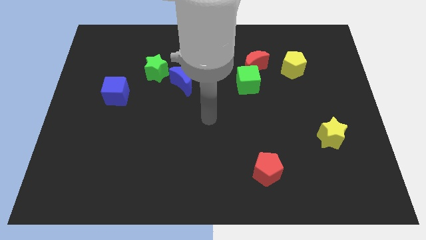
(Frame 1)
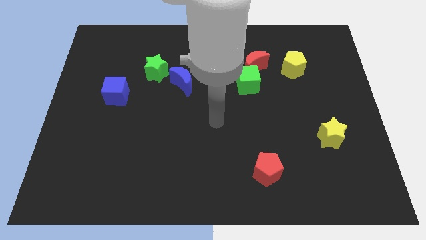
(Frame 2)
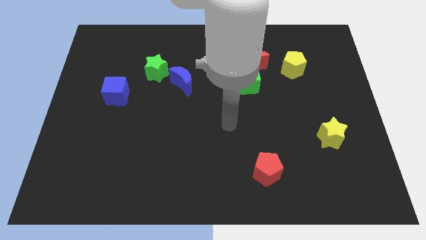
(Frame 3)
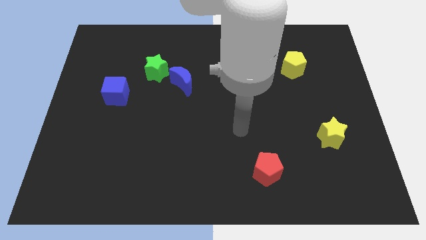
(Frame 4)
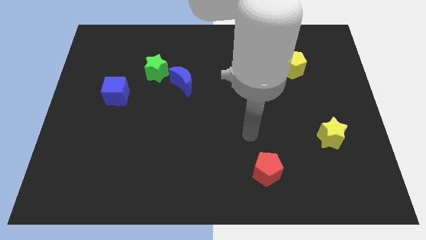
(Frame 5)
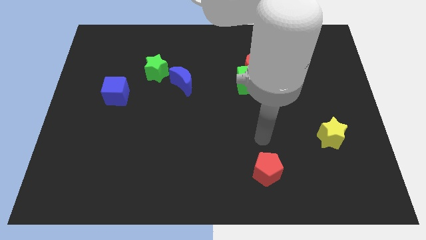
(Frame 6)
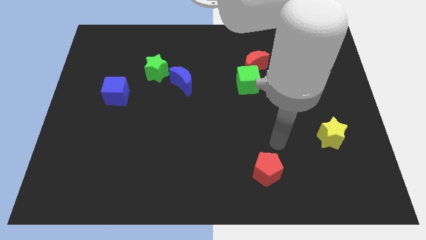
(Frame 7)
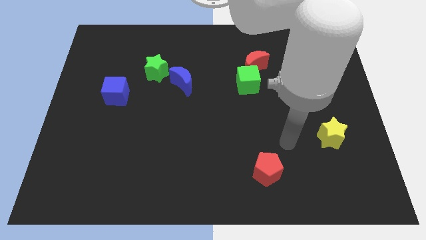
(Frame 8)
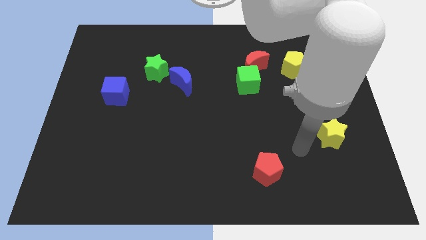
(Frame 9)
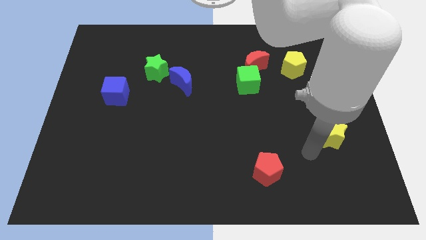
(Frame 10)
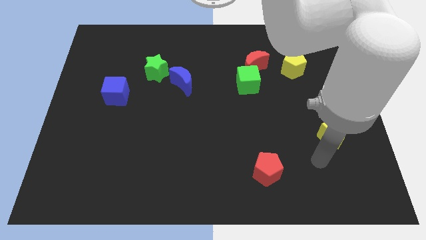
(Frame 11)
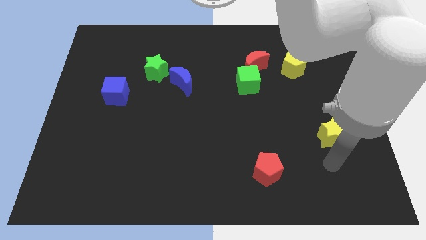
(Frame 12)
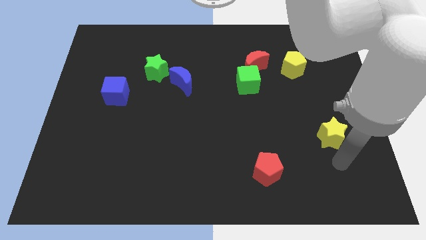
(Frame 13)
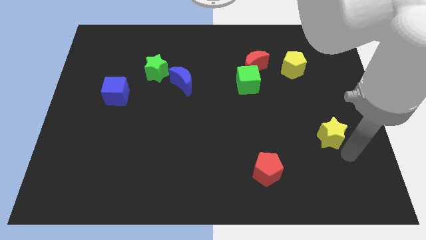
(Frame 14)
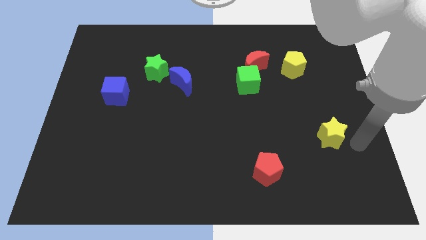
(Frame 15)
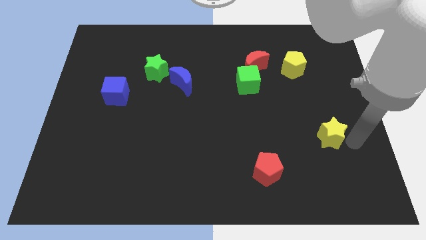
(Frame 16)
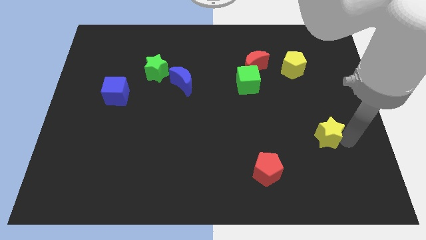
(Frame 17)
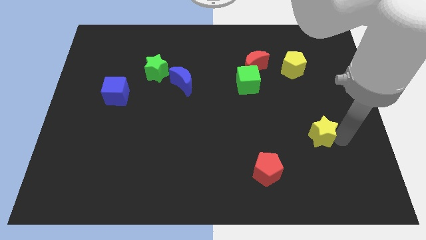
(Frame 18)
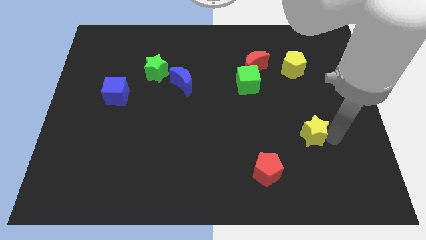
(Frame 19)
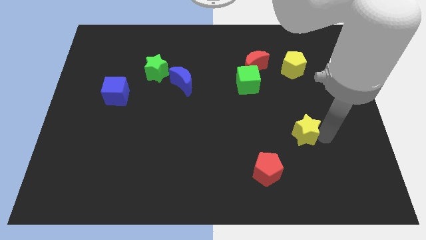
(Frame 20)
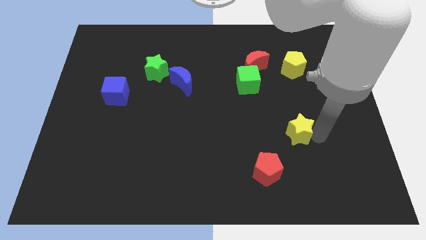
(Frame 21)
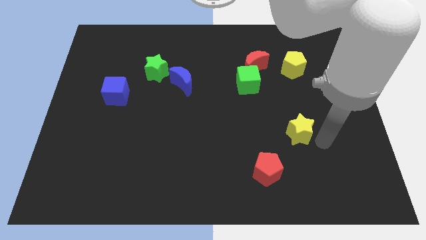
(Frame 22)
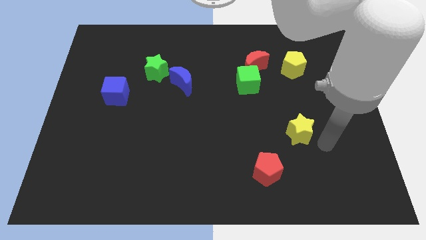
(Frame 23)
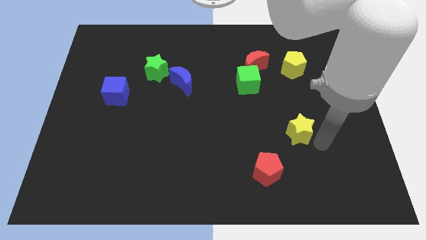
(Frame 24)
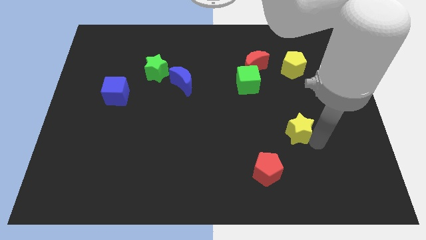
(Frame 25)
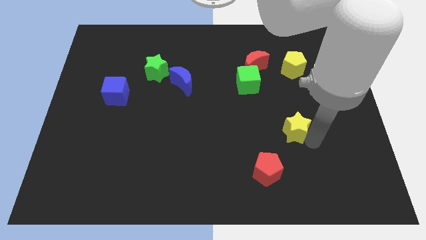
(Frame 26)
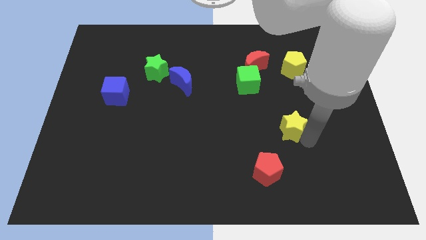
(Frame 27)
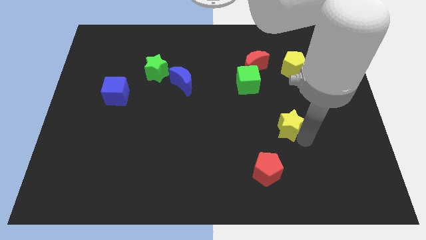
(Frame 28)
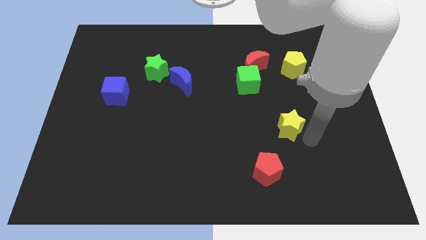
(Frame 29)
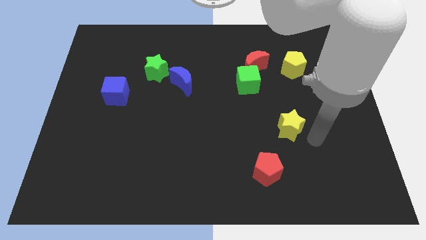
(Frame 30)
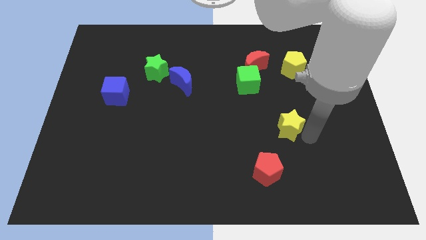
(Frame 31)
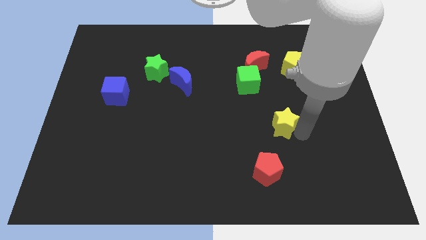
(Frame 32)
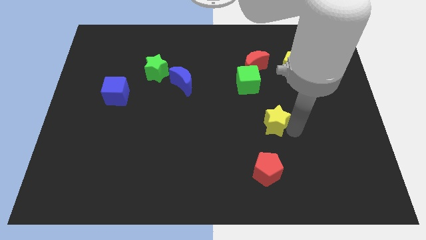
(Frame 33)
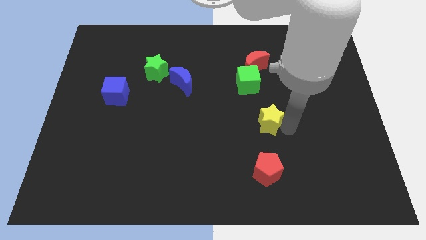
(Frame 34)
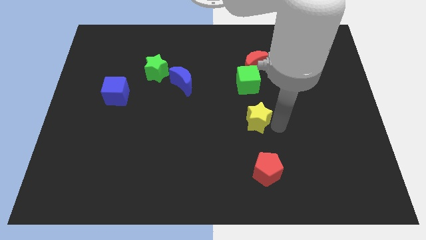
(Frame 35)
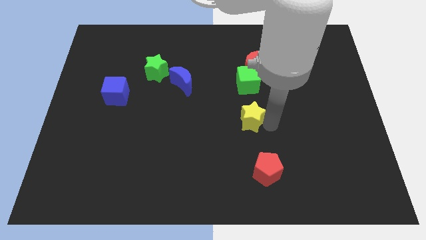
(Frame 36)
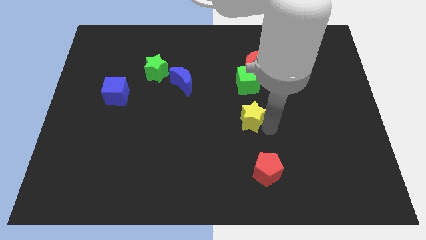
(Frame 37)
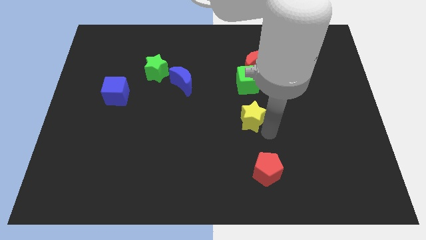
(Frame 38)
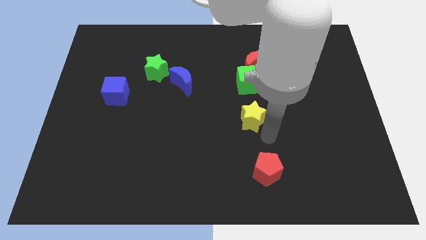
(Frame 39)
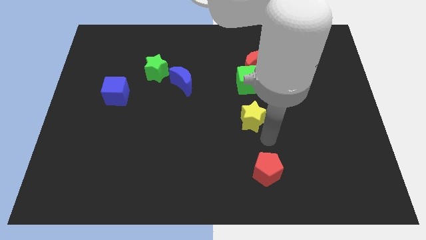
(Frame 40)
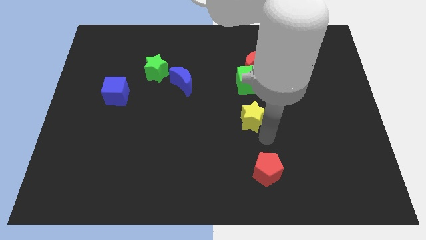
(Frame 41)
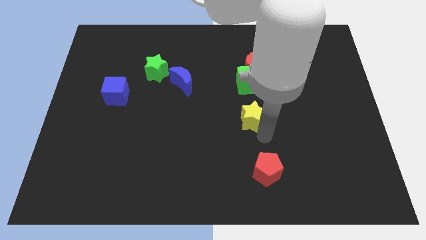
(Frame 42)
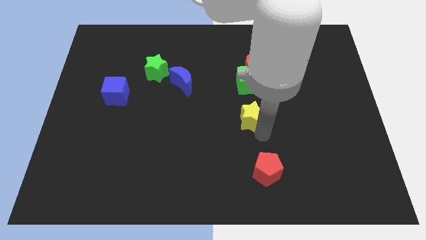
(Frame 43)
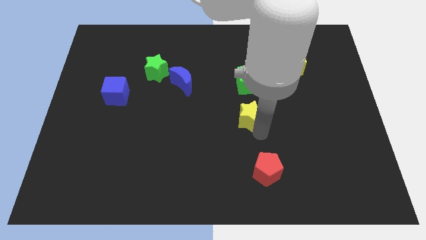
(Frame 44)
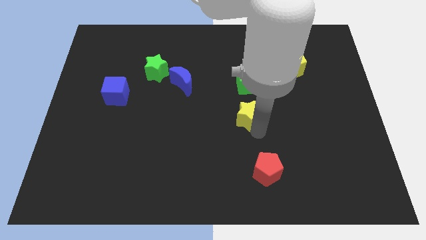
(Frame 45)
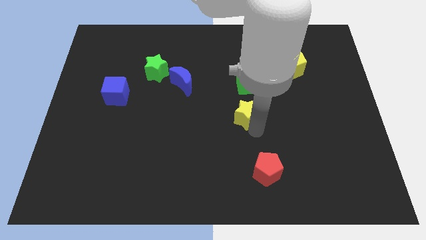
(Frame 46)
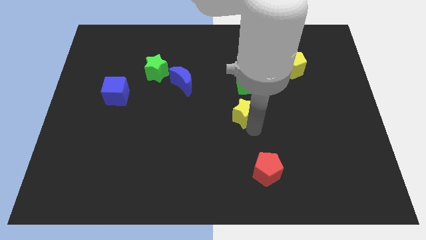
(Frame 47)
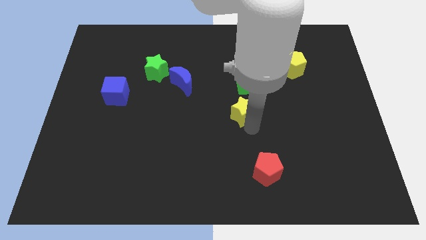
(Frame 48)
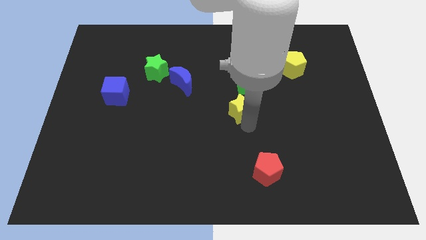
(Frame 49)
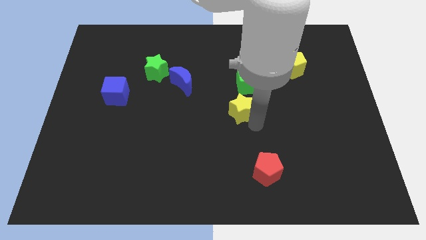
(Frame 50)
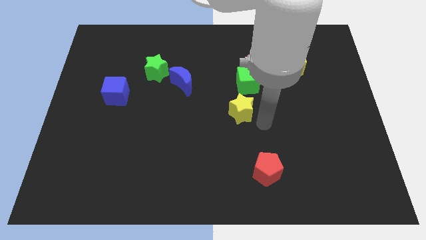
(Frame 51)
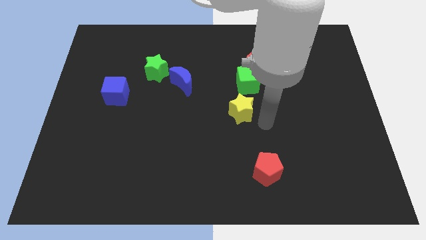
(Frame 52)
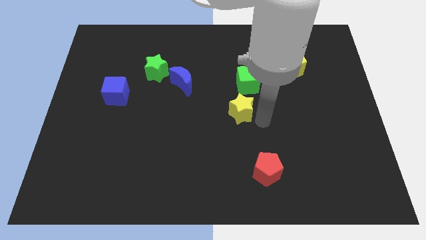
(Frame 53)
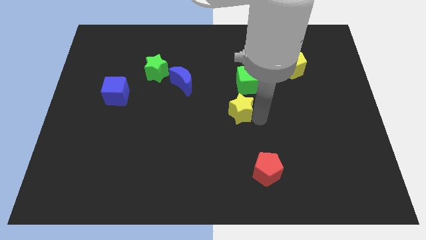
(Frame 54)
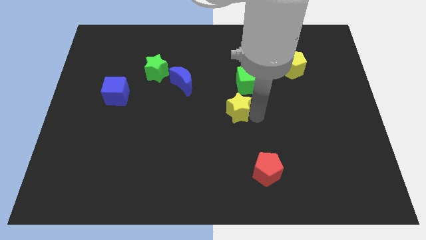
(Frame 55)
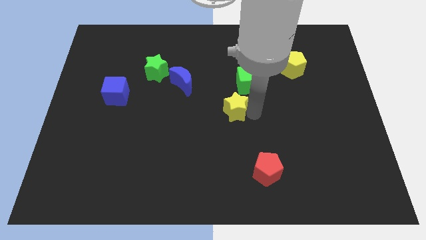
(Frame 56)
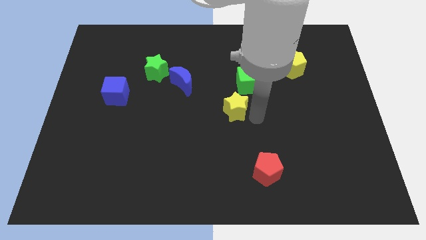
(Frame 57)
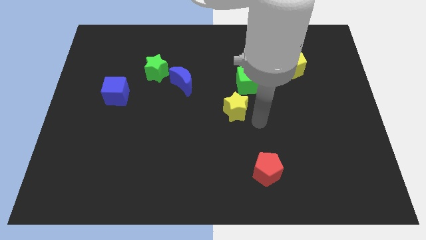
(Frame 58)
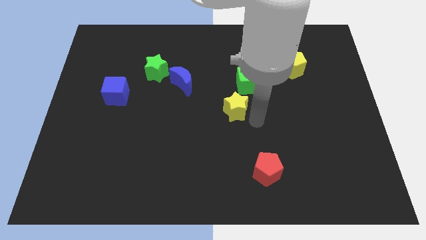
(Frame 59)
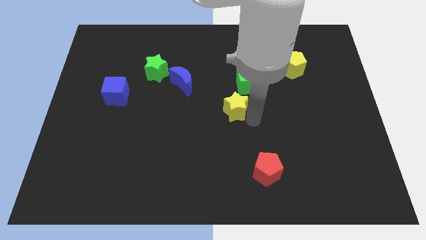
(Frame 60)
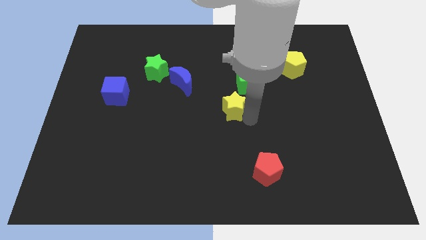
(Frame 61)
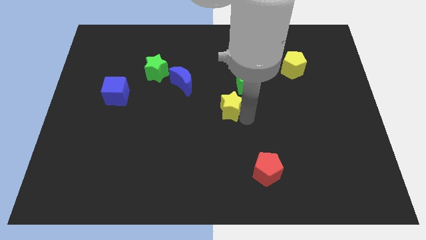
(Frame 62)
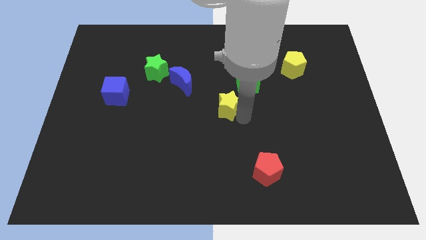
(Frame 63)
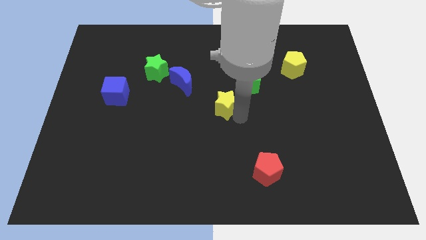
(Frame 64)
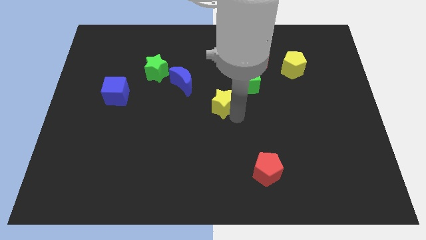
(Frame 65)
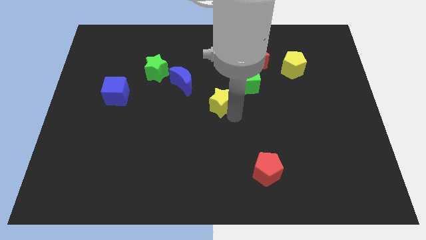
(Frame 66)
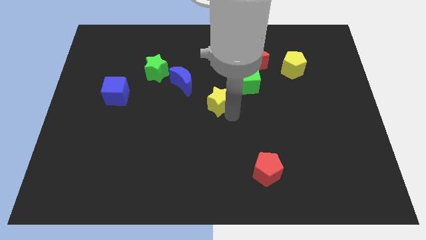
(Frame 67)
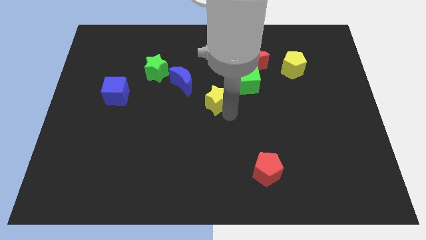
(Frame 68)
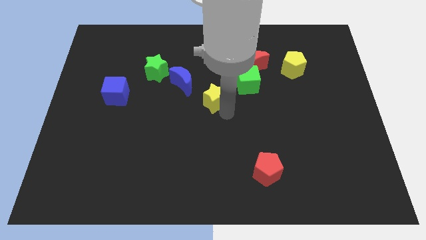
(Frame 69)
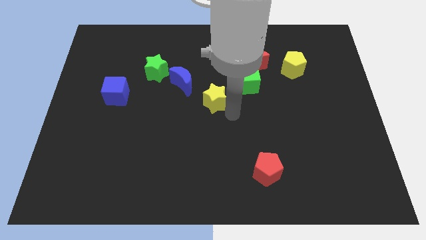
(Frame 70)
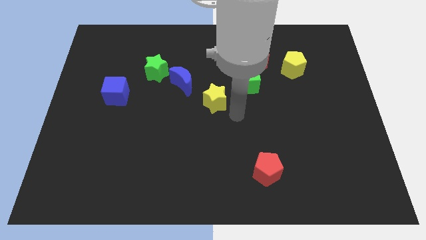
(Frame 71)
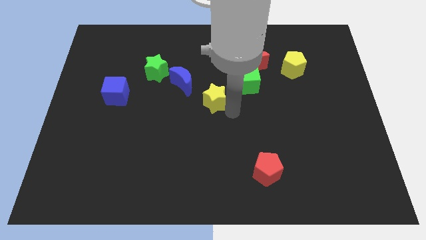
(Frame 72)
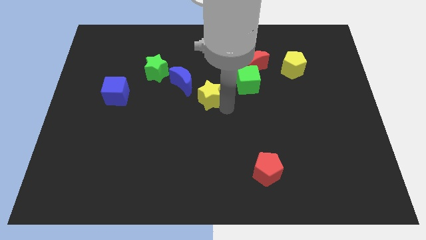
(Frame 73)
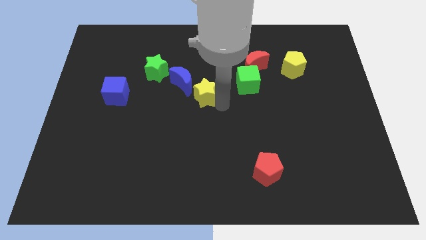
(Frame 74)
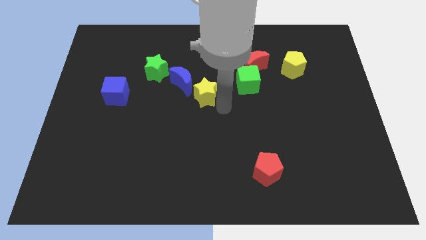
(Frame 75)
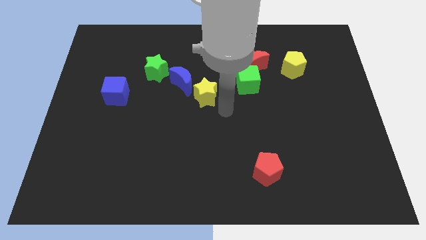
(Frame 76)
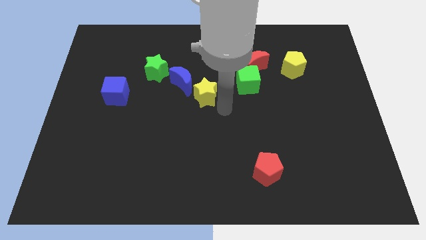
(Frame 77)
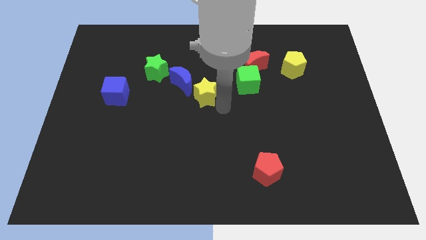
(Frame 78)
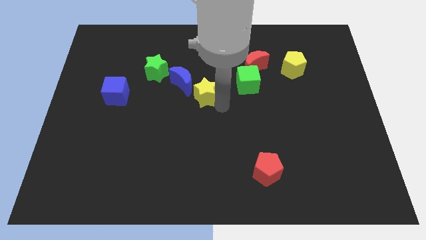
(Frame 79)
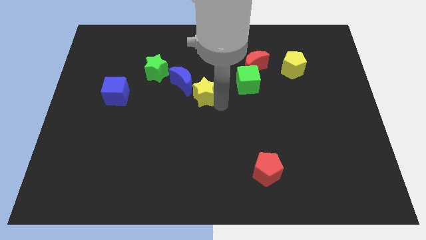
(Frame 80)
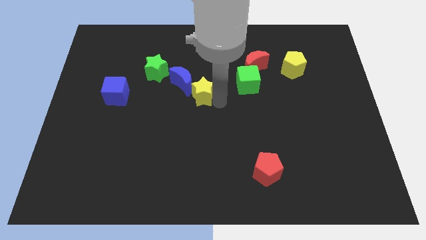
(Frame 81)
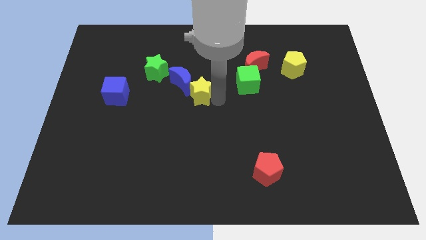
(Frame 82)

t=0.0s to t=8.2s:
slide the yellow star close to the blue moon
